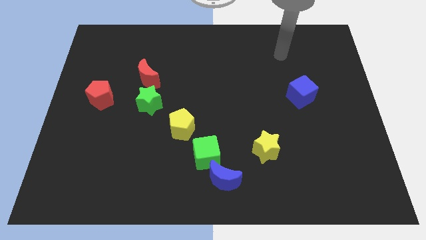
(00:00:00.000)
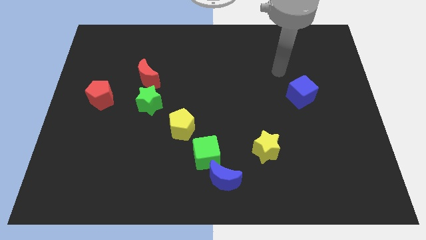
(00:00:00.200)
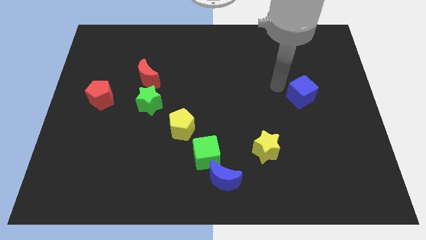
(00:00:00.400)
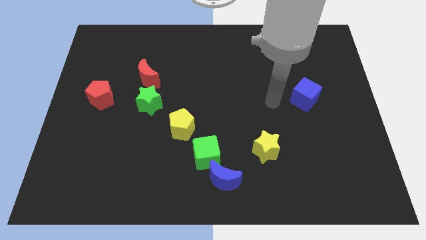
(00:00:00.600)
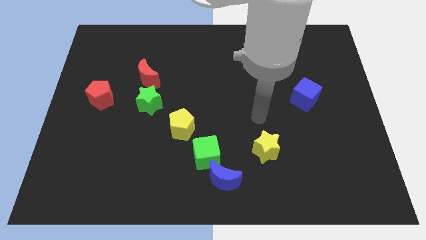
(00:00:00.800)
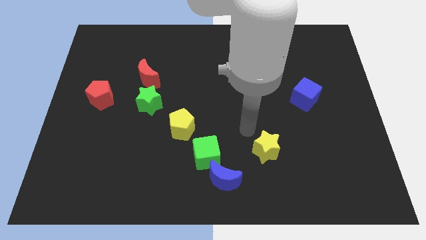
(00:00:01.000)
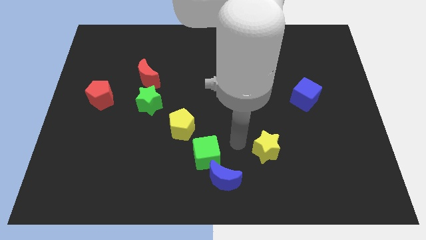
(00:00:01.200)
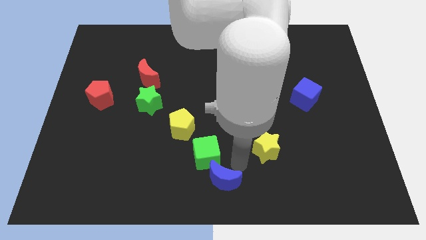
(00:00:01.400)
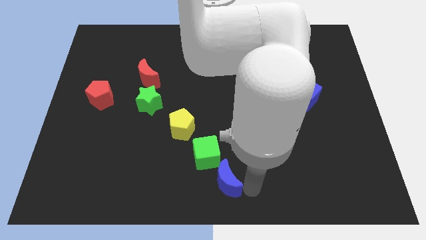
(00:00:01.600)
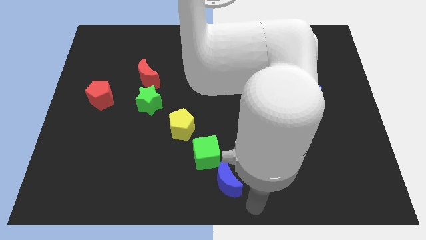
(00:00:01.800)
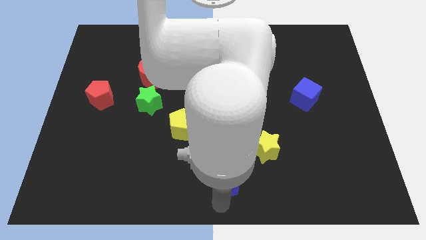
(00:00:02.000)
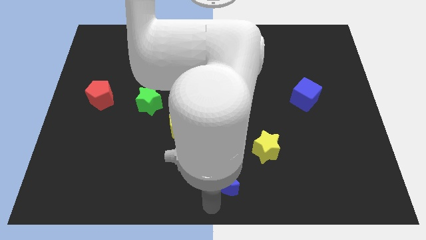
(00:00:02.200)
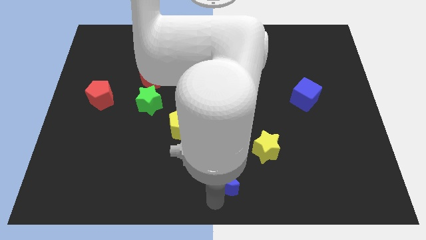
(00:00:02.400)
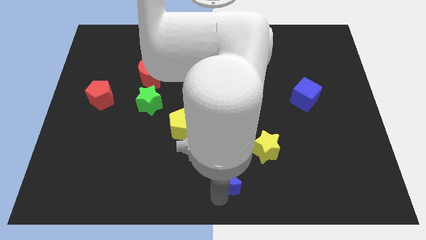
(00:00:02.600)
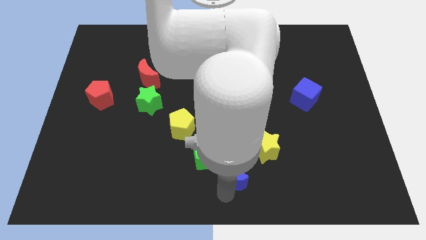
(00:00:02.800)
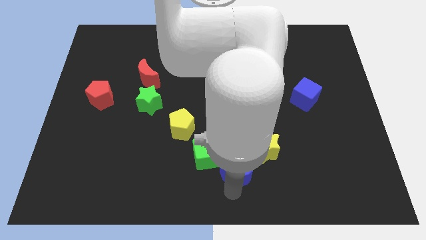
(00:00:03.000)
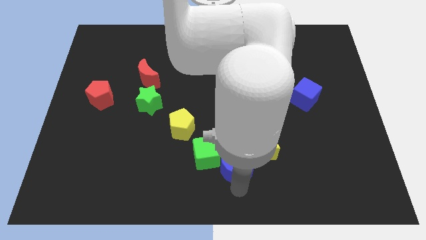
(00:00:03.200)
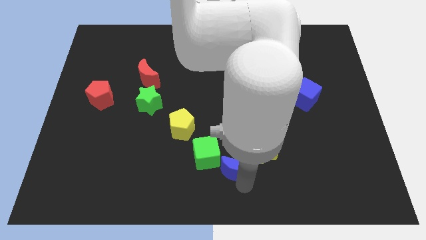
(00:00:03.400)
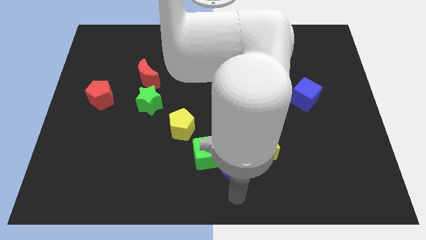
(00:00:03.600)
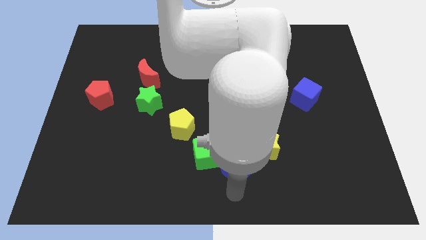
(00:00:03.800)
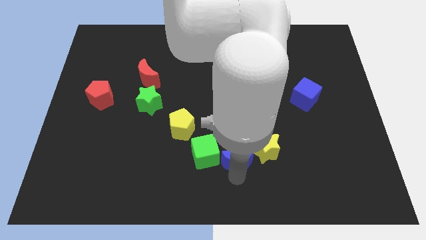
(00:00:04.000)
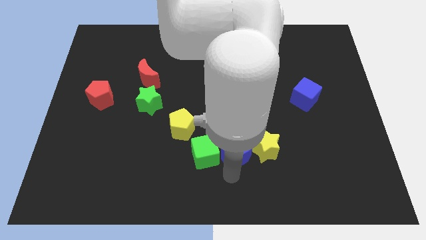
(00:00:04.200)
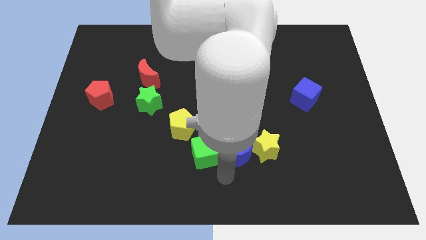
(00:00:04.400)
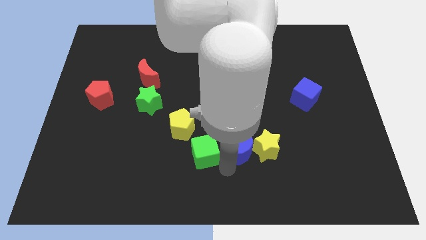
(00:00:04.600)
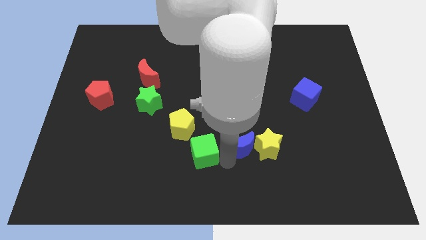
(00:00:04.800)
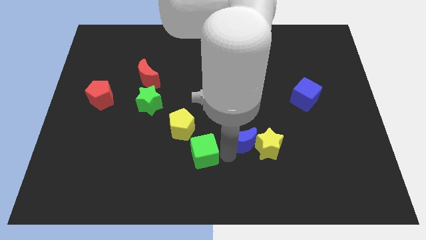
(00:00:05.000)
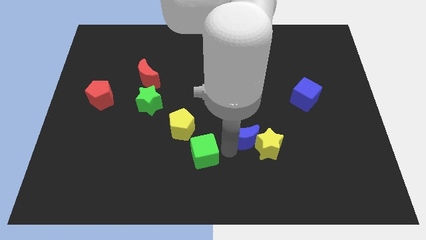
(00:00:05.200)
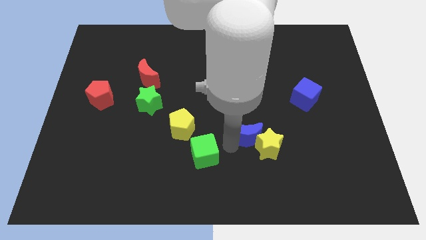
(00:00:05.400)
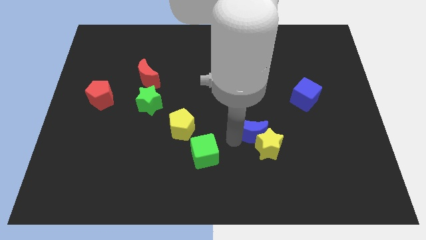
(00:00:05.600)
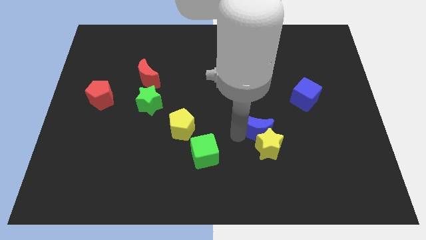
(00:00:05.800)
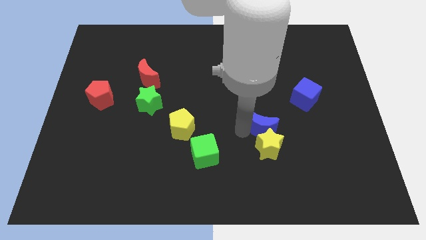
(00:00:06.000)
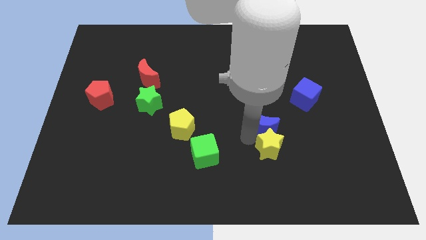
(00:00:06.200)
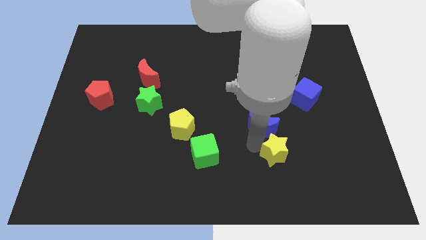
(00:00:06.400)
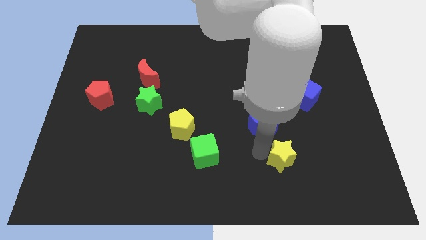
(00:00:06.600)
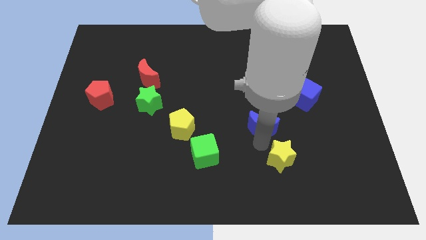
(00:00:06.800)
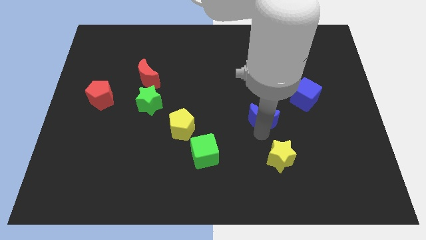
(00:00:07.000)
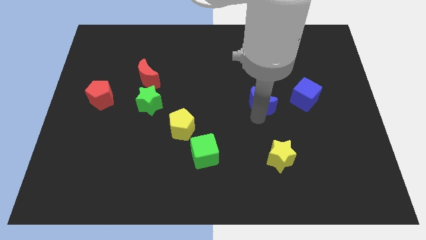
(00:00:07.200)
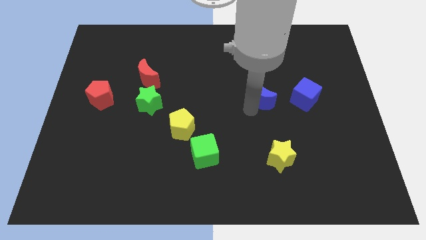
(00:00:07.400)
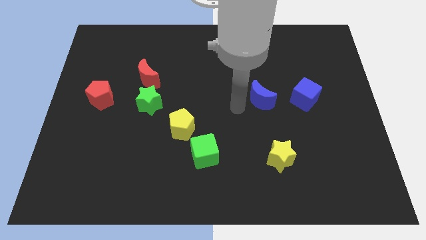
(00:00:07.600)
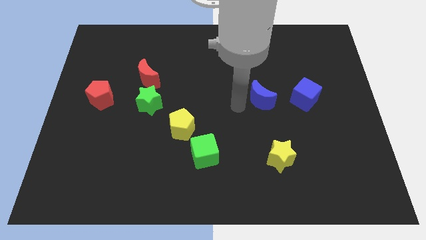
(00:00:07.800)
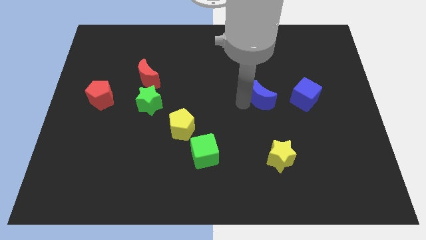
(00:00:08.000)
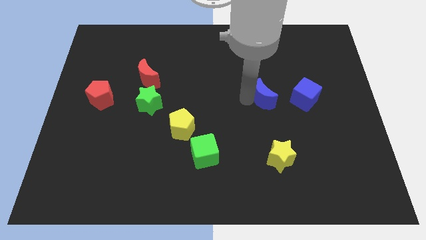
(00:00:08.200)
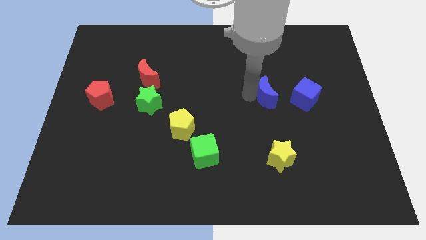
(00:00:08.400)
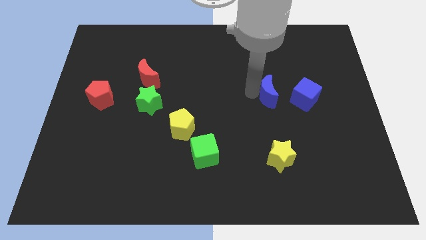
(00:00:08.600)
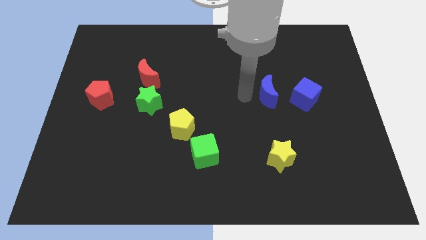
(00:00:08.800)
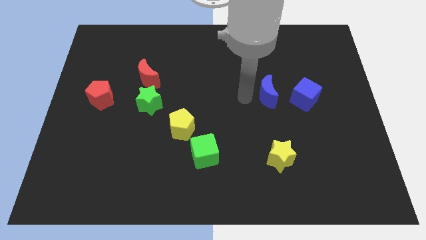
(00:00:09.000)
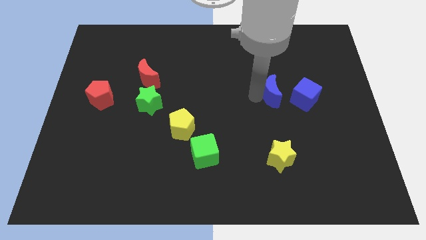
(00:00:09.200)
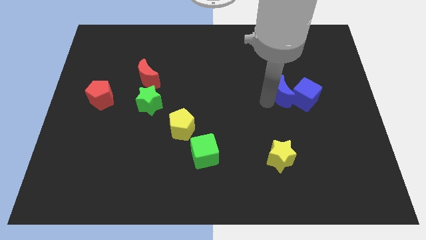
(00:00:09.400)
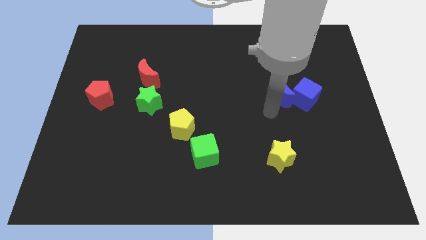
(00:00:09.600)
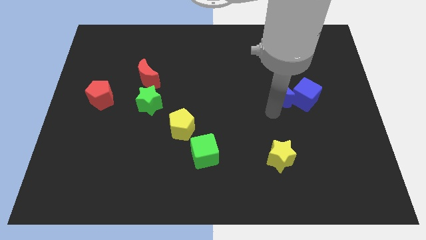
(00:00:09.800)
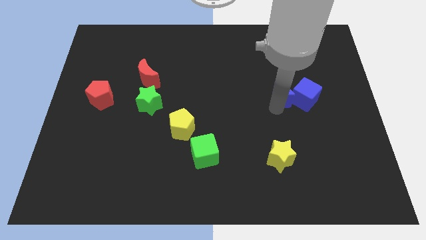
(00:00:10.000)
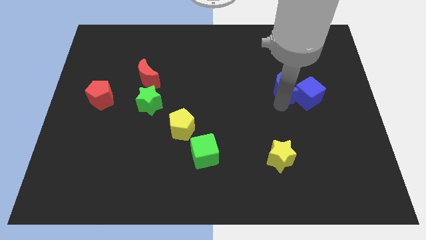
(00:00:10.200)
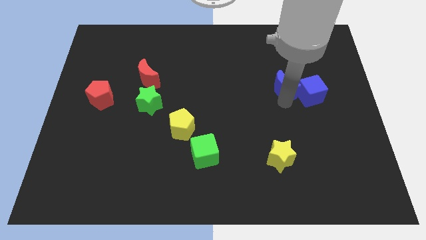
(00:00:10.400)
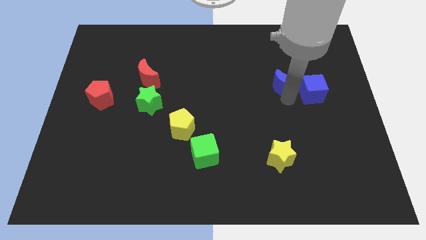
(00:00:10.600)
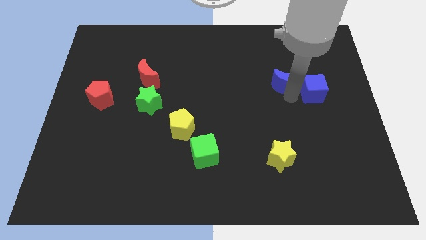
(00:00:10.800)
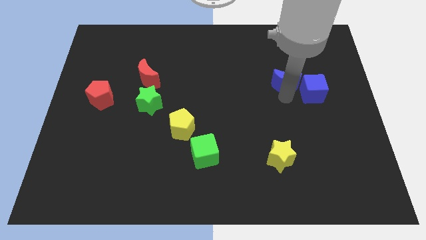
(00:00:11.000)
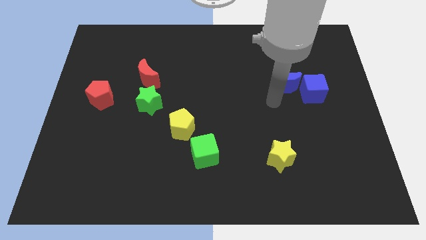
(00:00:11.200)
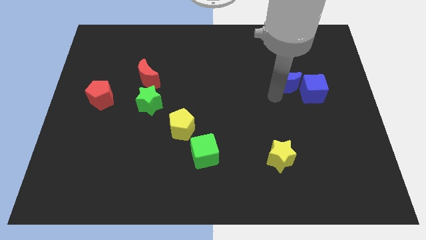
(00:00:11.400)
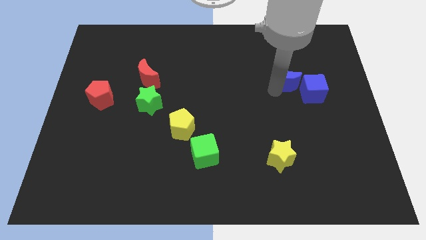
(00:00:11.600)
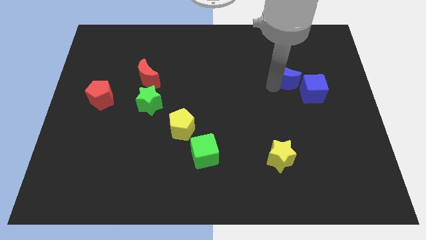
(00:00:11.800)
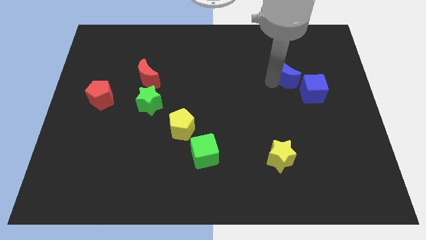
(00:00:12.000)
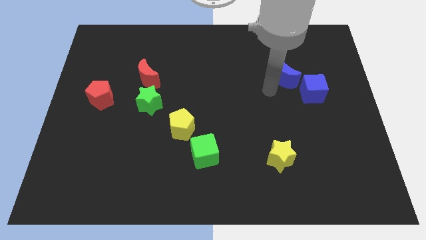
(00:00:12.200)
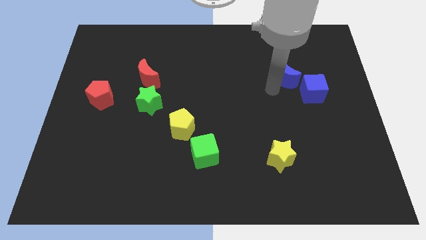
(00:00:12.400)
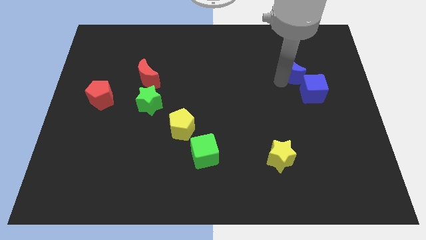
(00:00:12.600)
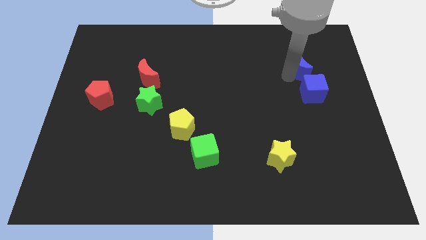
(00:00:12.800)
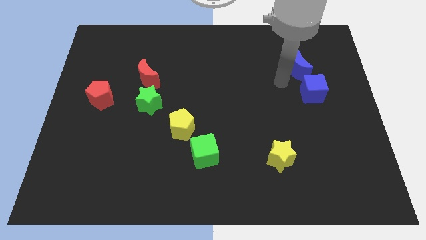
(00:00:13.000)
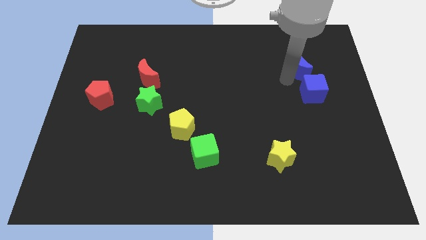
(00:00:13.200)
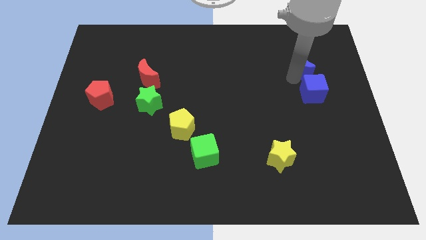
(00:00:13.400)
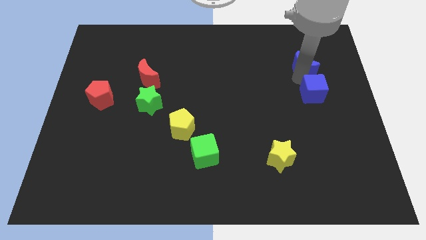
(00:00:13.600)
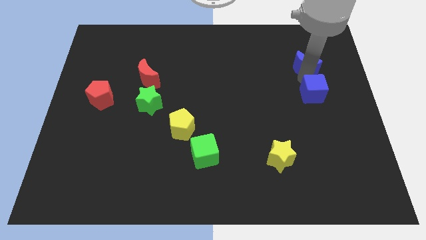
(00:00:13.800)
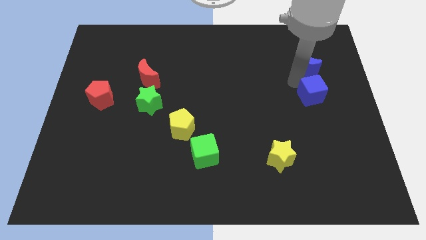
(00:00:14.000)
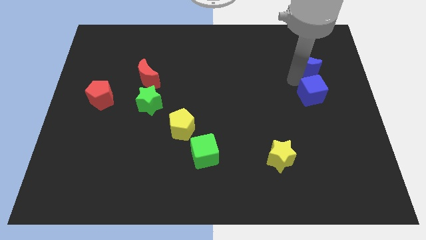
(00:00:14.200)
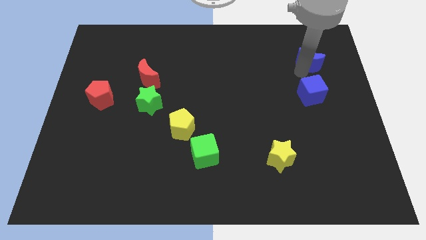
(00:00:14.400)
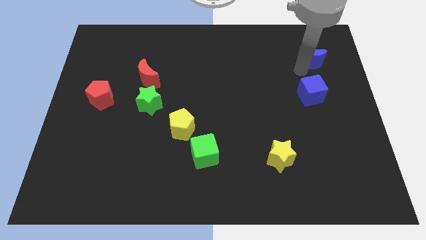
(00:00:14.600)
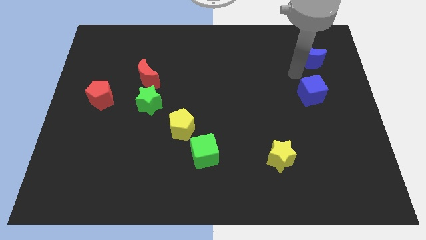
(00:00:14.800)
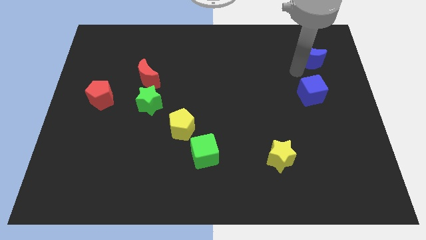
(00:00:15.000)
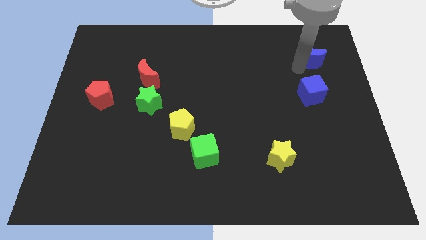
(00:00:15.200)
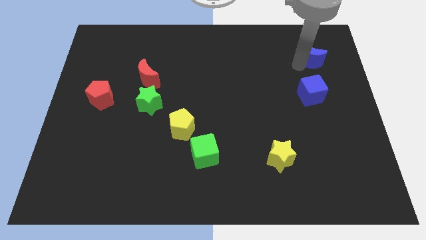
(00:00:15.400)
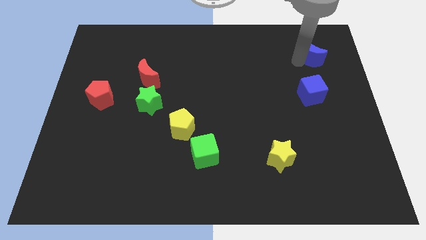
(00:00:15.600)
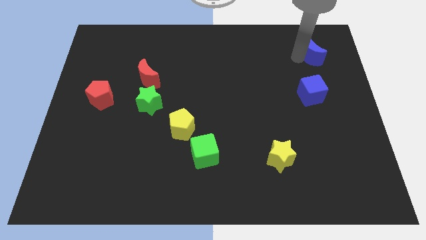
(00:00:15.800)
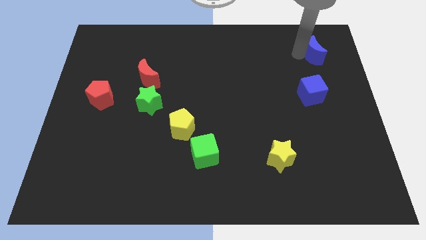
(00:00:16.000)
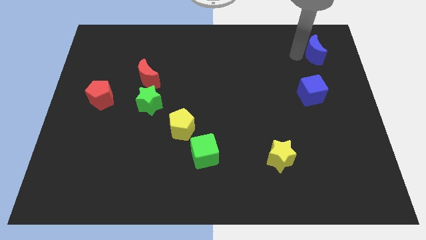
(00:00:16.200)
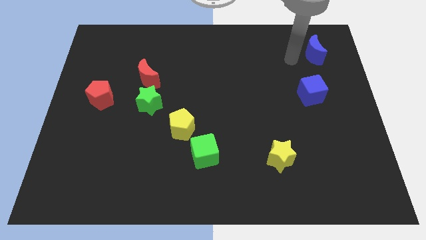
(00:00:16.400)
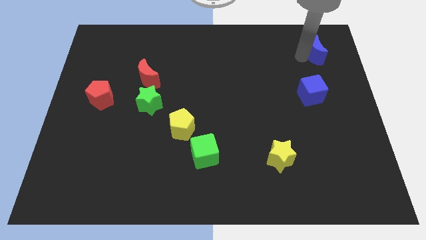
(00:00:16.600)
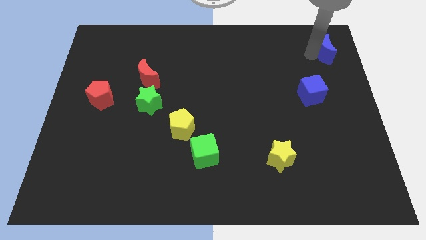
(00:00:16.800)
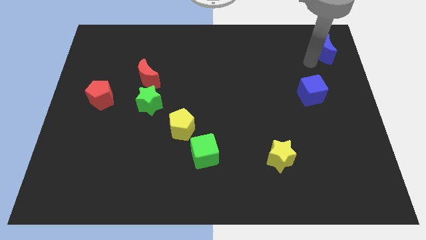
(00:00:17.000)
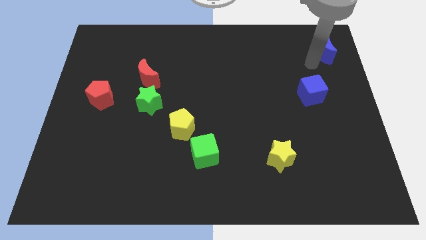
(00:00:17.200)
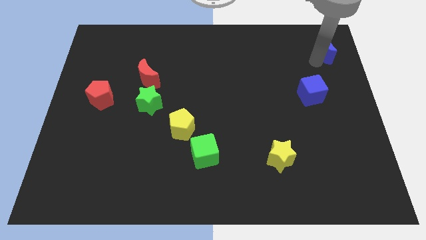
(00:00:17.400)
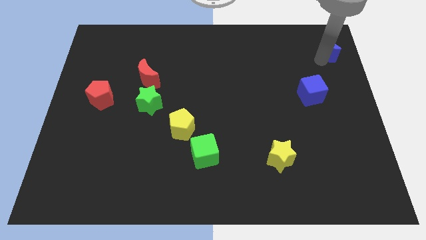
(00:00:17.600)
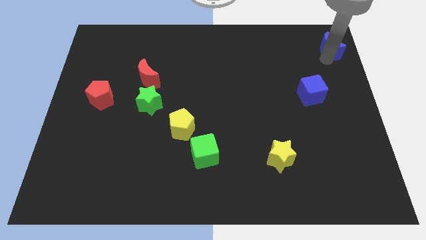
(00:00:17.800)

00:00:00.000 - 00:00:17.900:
put the blue moon to the top right of the board
